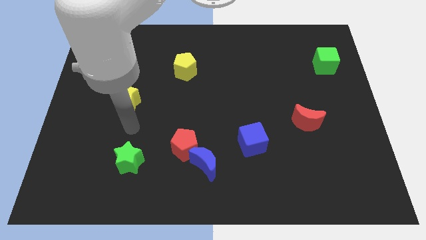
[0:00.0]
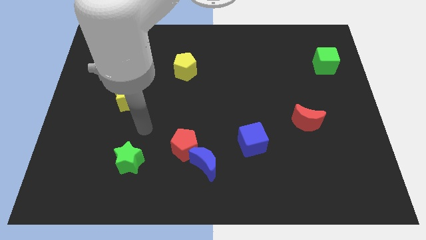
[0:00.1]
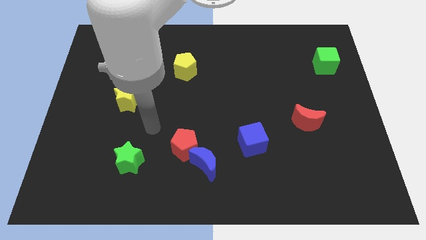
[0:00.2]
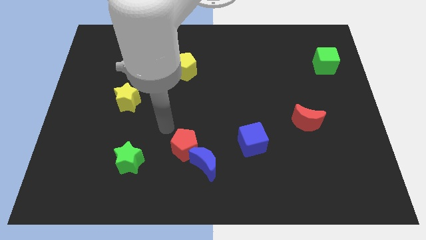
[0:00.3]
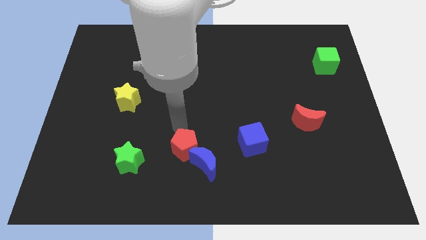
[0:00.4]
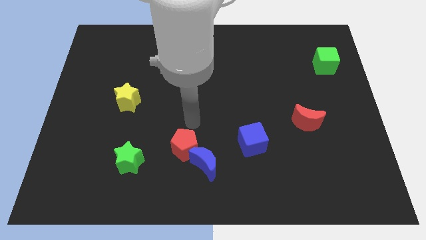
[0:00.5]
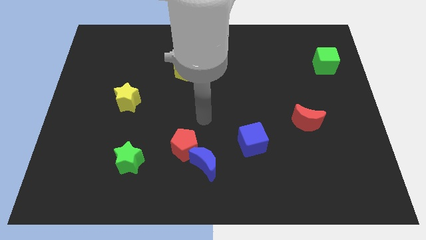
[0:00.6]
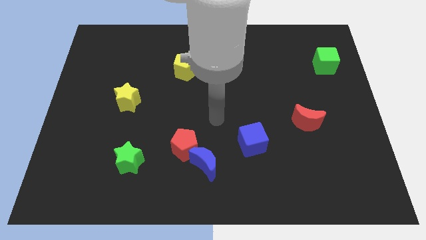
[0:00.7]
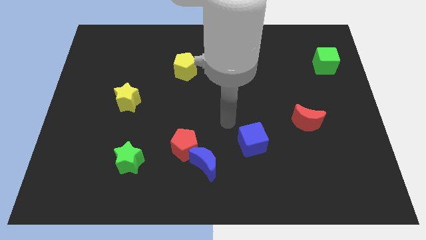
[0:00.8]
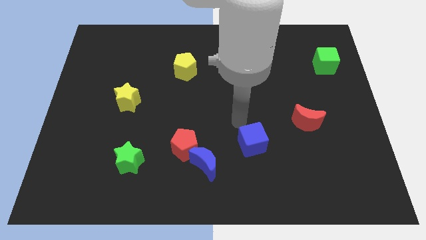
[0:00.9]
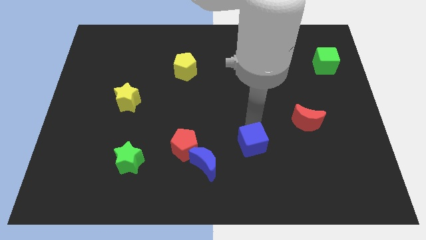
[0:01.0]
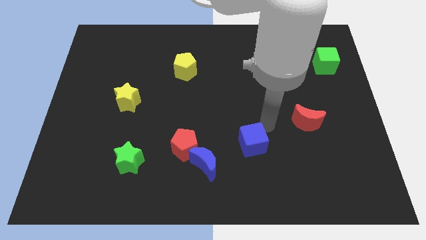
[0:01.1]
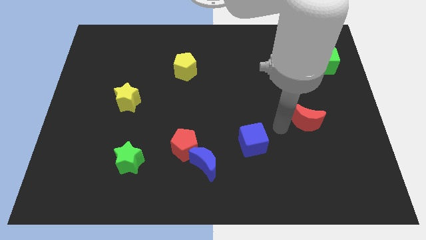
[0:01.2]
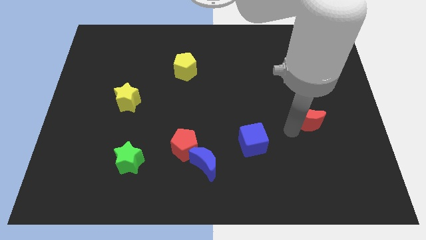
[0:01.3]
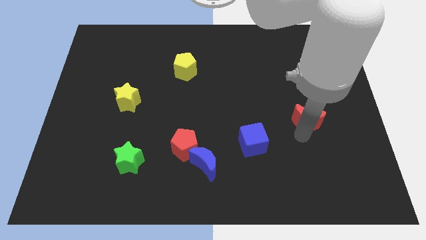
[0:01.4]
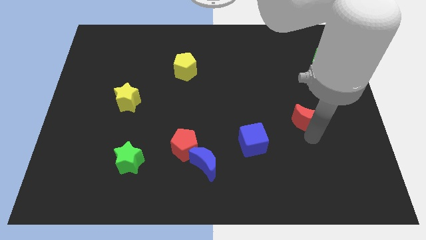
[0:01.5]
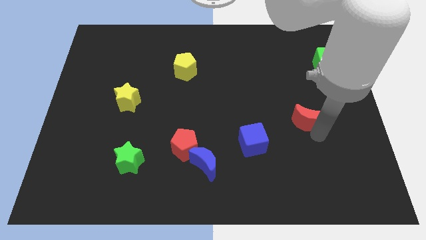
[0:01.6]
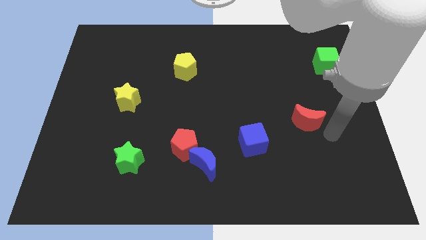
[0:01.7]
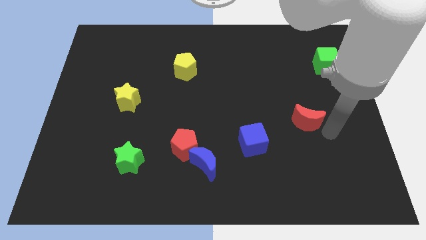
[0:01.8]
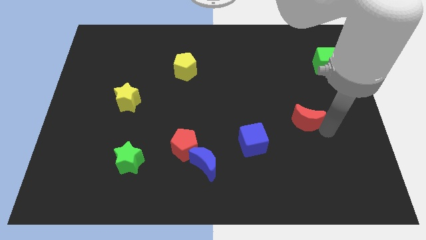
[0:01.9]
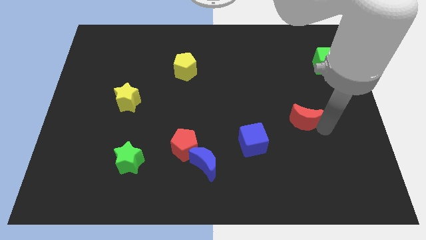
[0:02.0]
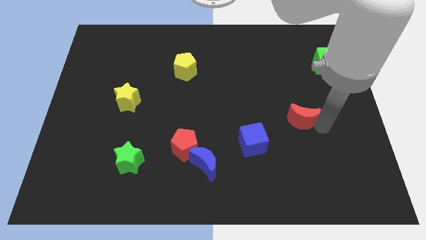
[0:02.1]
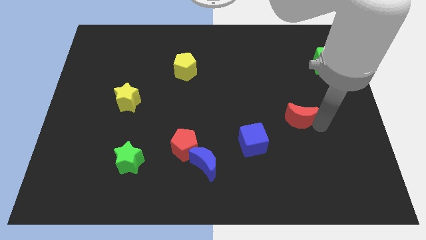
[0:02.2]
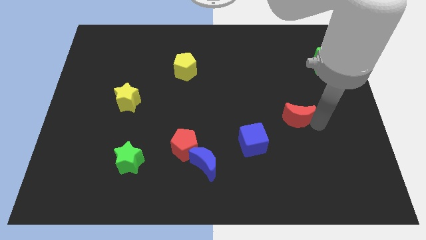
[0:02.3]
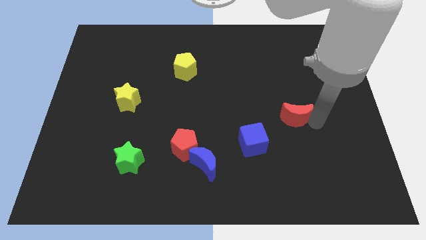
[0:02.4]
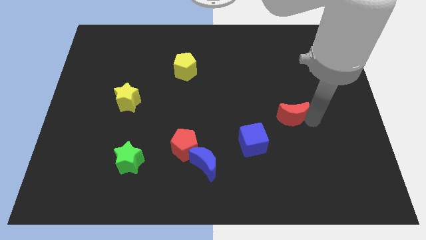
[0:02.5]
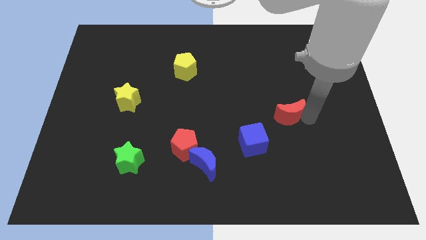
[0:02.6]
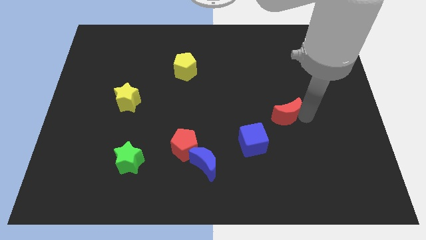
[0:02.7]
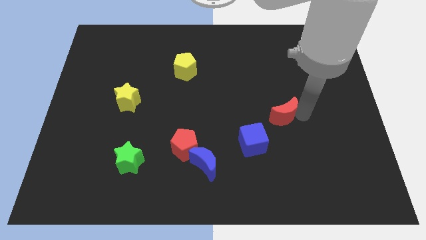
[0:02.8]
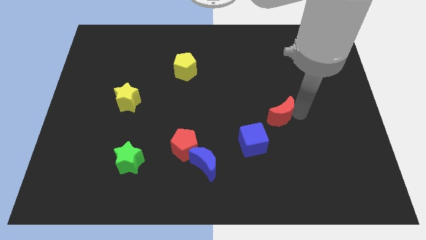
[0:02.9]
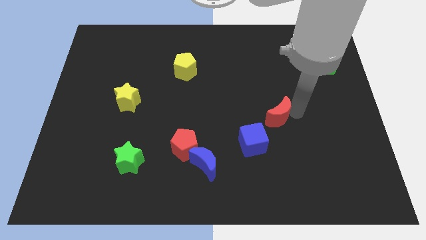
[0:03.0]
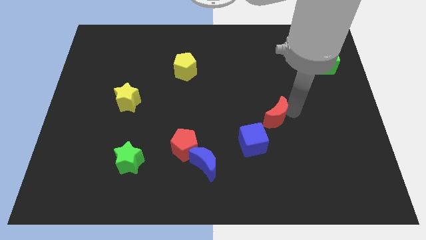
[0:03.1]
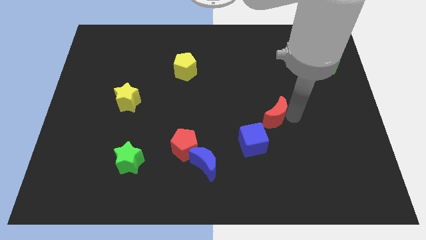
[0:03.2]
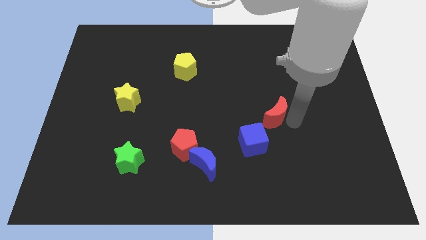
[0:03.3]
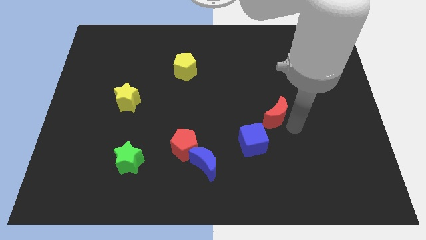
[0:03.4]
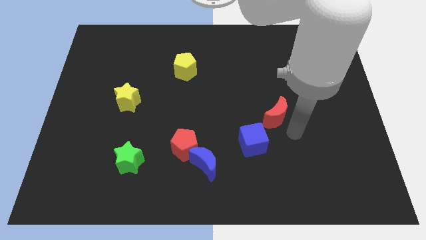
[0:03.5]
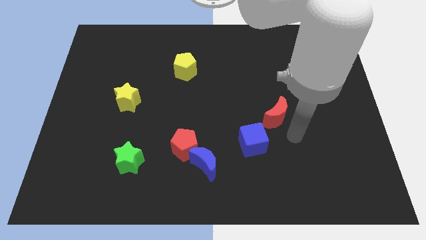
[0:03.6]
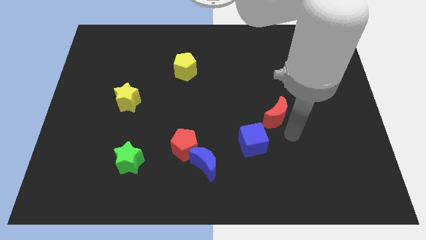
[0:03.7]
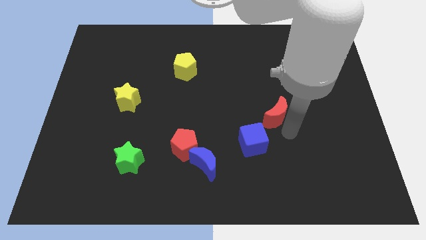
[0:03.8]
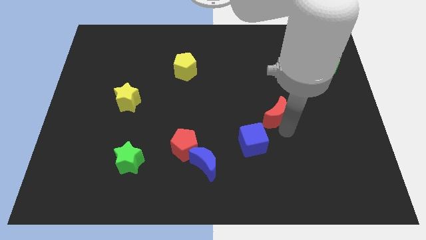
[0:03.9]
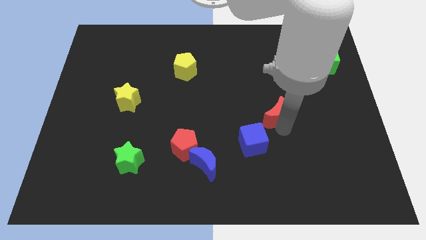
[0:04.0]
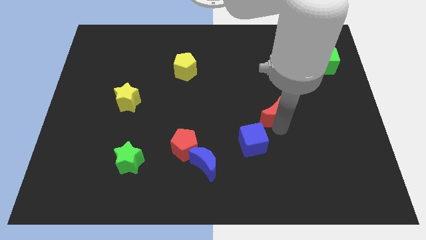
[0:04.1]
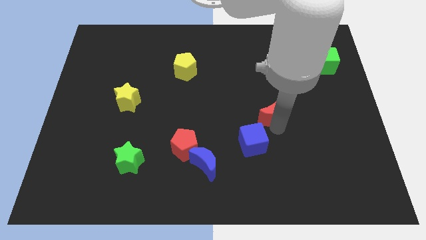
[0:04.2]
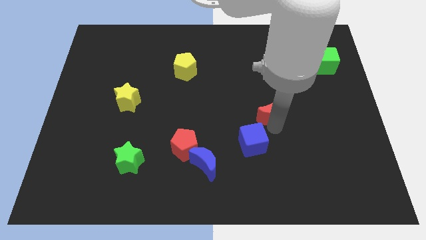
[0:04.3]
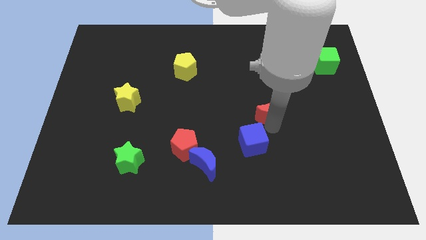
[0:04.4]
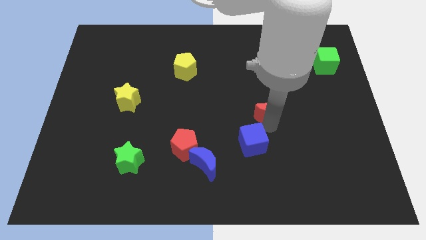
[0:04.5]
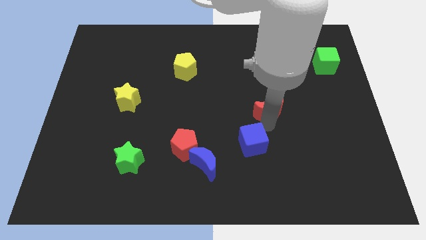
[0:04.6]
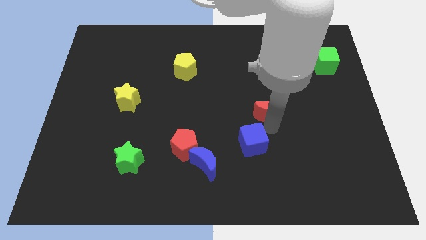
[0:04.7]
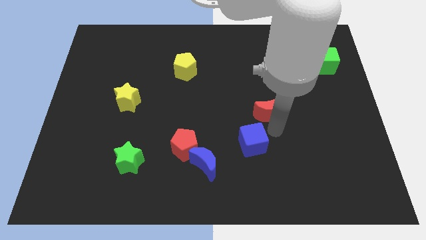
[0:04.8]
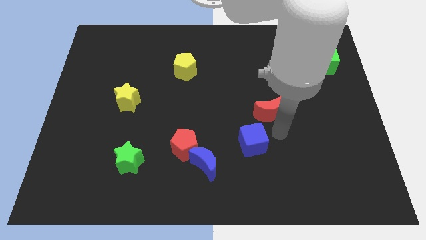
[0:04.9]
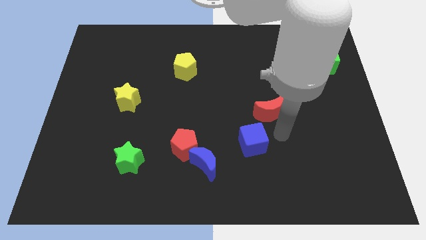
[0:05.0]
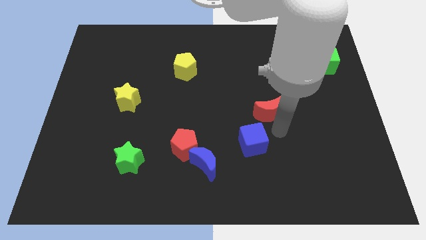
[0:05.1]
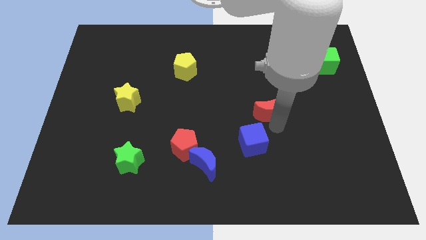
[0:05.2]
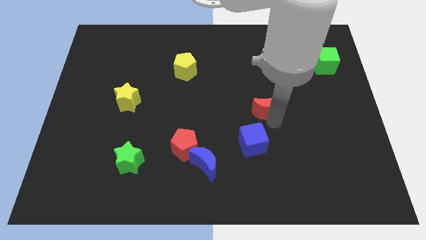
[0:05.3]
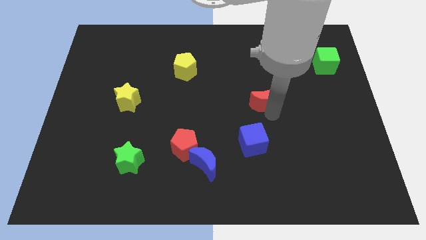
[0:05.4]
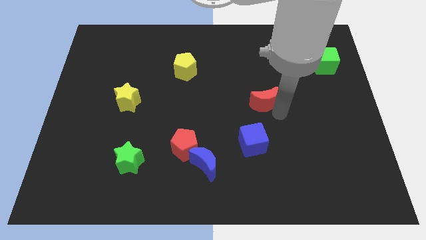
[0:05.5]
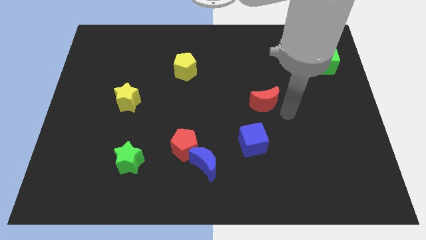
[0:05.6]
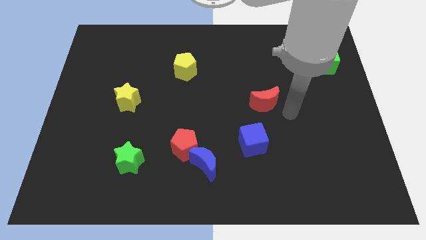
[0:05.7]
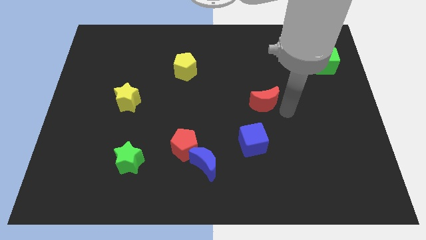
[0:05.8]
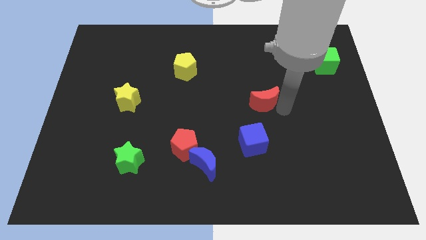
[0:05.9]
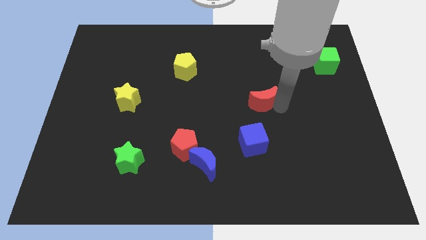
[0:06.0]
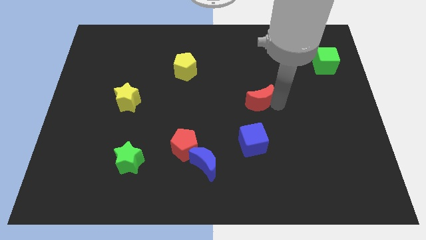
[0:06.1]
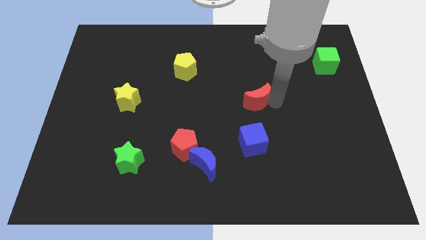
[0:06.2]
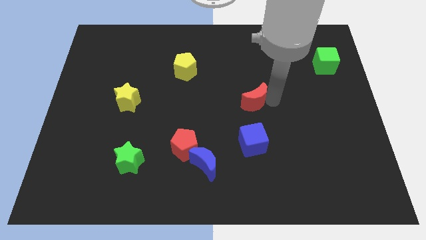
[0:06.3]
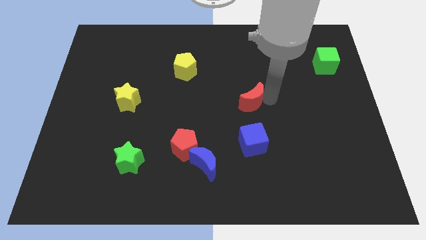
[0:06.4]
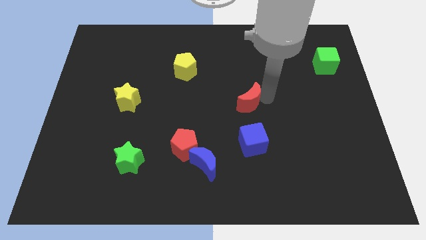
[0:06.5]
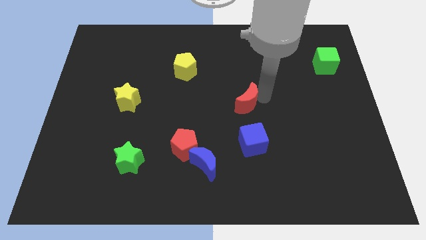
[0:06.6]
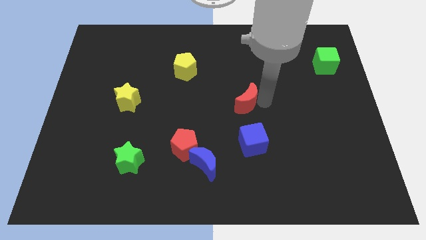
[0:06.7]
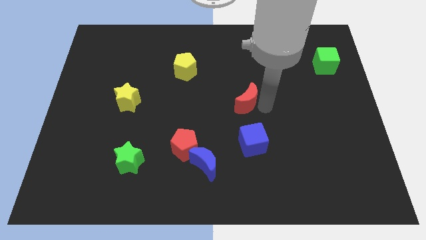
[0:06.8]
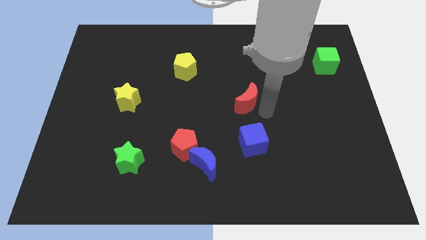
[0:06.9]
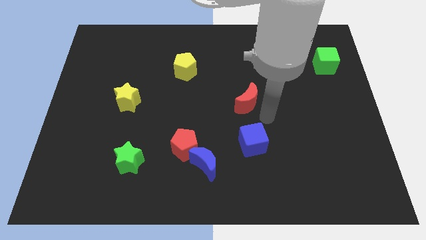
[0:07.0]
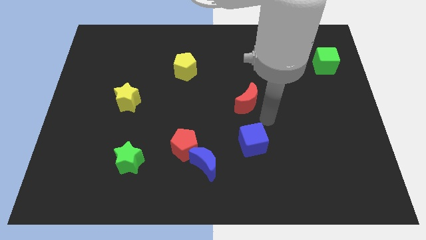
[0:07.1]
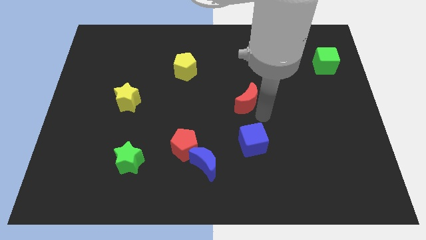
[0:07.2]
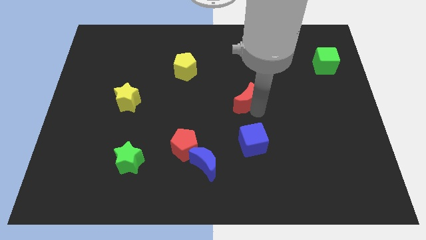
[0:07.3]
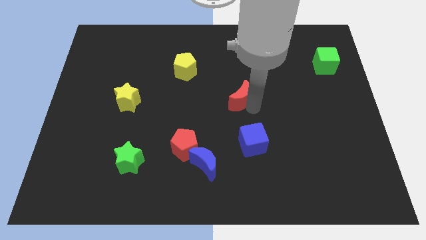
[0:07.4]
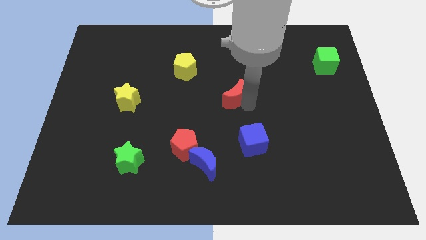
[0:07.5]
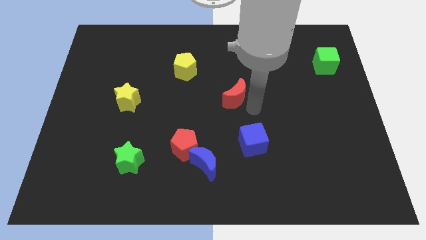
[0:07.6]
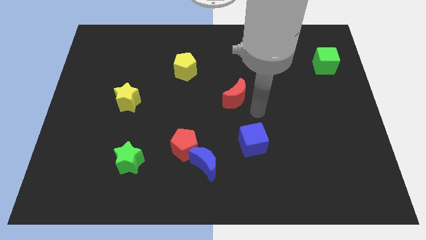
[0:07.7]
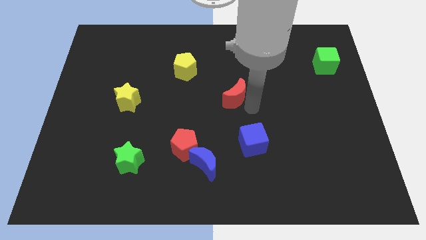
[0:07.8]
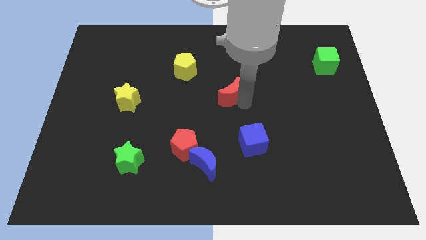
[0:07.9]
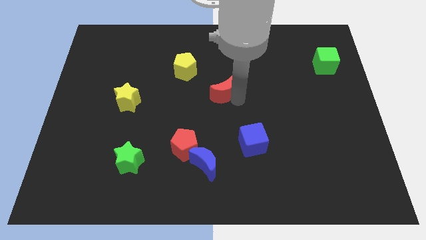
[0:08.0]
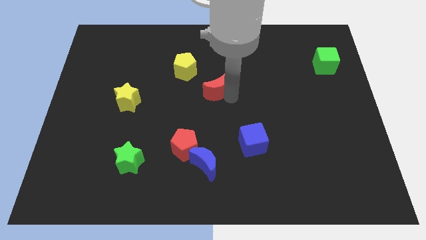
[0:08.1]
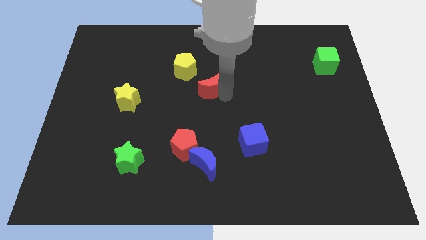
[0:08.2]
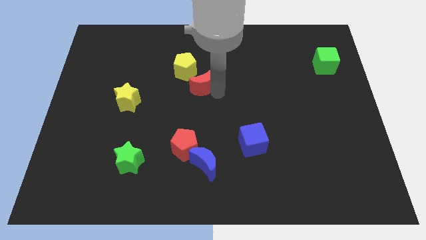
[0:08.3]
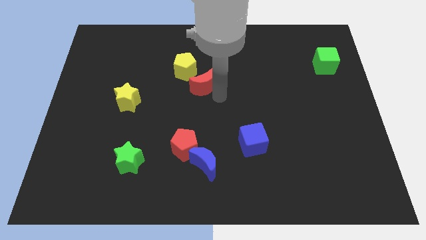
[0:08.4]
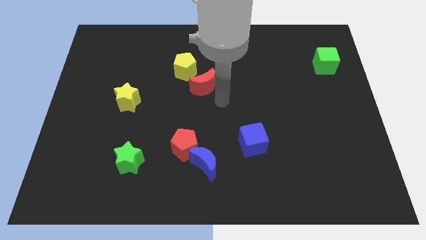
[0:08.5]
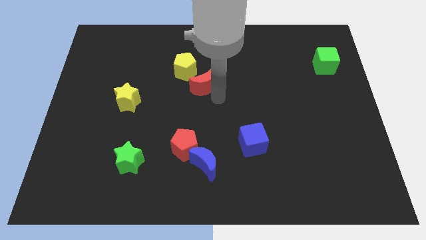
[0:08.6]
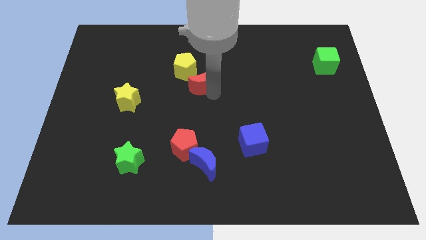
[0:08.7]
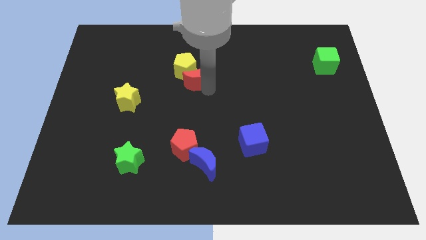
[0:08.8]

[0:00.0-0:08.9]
push the red moon towards the yellow pentagon
